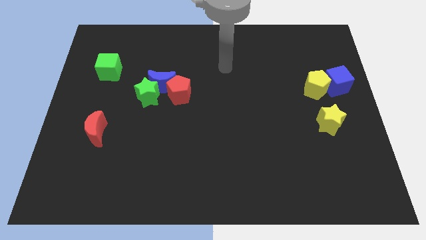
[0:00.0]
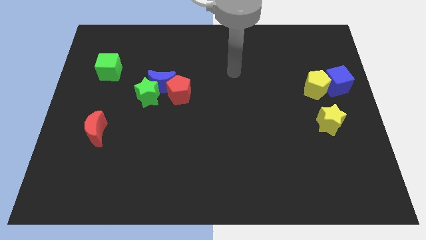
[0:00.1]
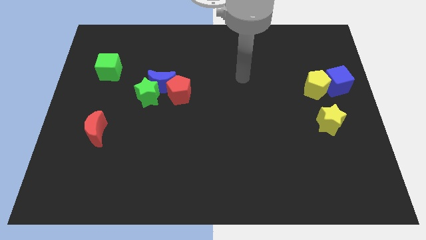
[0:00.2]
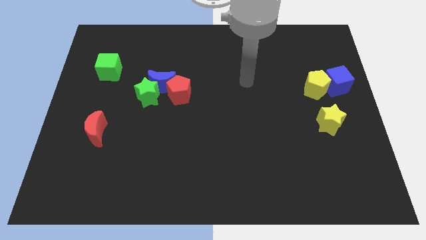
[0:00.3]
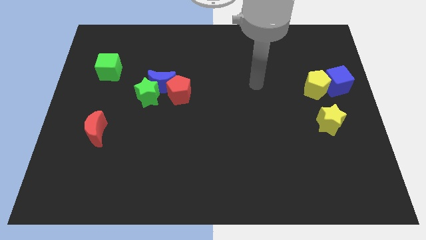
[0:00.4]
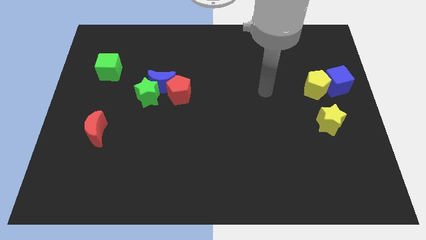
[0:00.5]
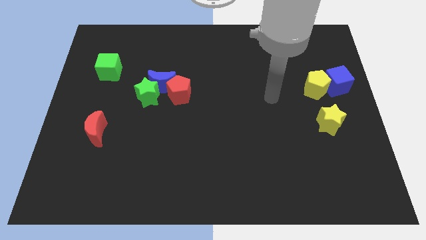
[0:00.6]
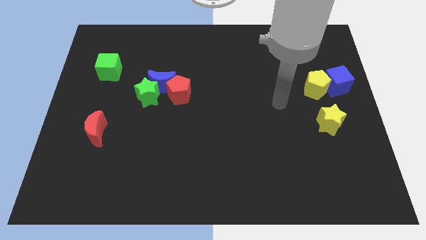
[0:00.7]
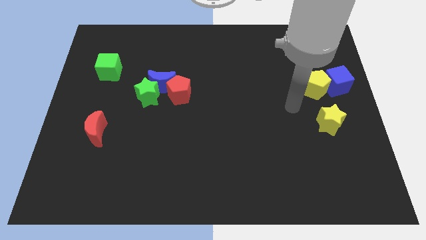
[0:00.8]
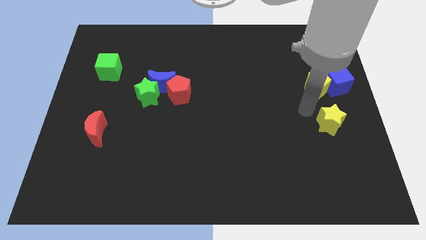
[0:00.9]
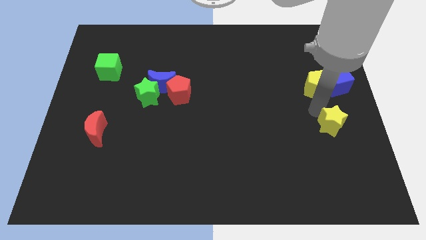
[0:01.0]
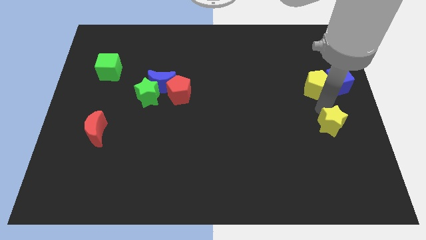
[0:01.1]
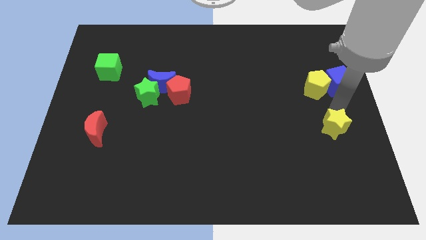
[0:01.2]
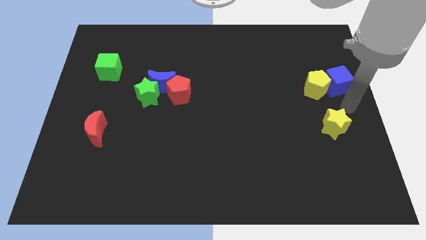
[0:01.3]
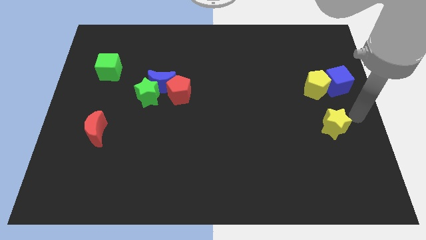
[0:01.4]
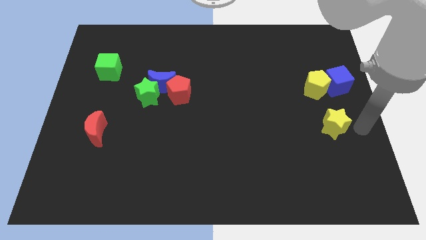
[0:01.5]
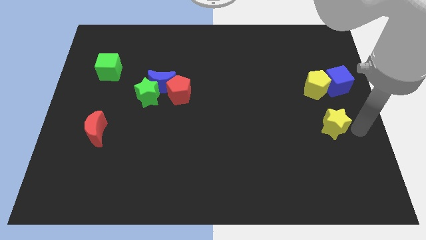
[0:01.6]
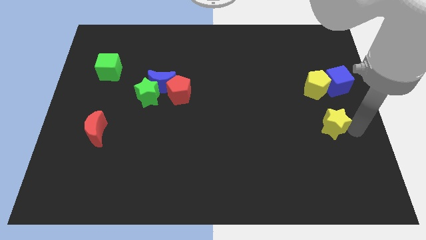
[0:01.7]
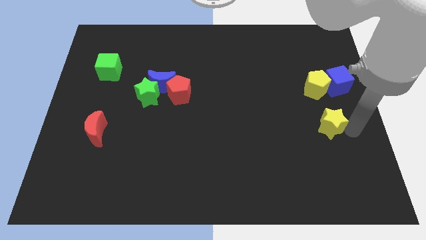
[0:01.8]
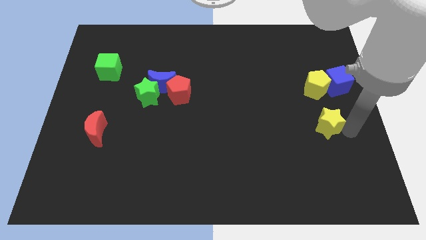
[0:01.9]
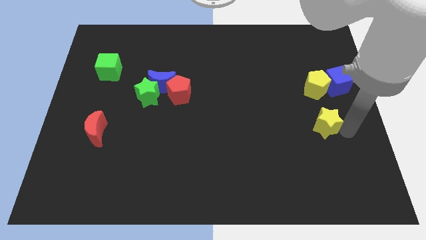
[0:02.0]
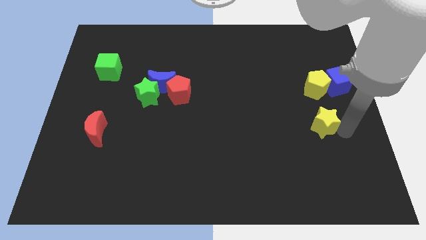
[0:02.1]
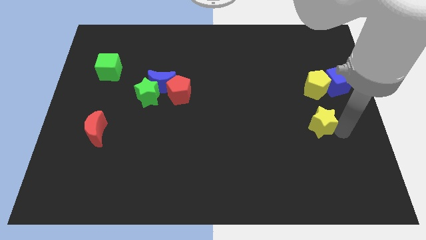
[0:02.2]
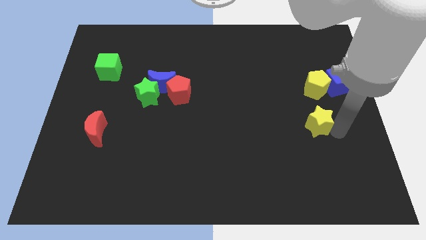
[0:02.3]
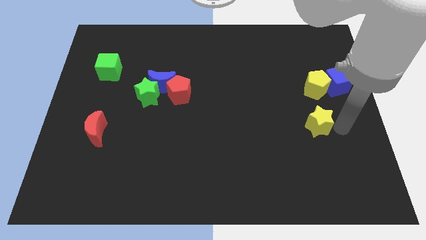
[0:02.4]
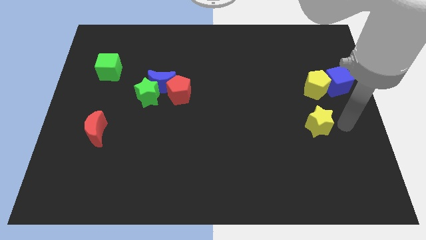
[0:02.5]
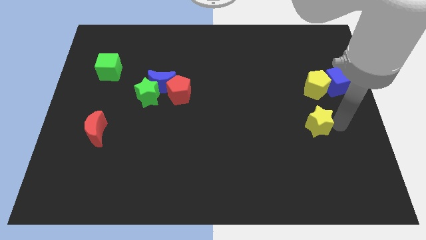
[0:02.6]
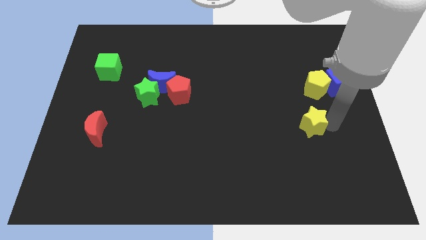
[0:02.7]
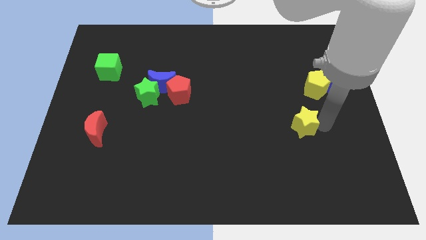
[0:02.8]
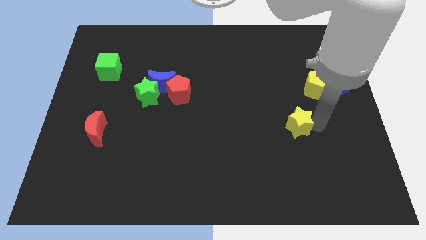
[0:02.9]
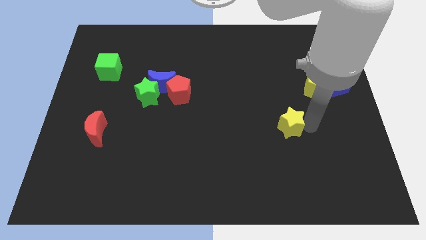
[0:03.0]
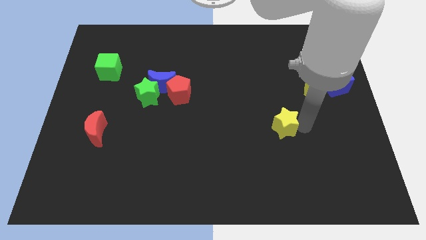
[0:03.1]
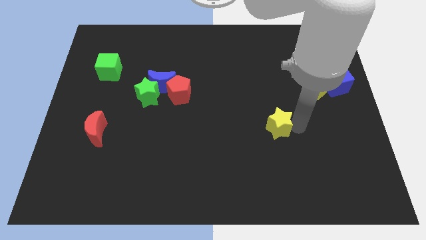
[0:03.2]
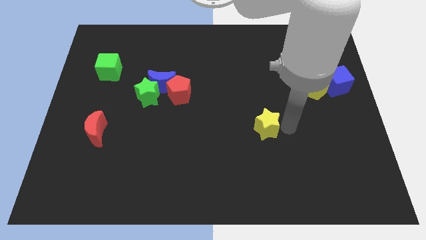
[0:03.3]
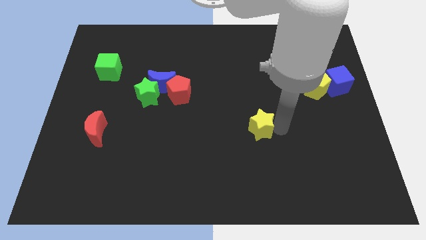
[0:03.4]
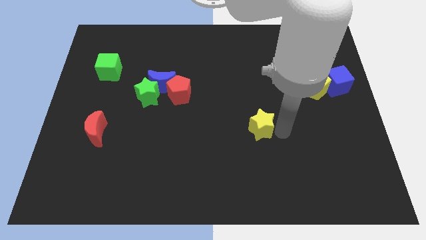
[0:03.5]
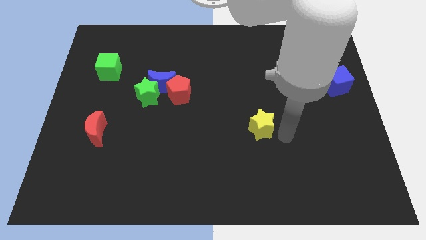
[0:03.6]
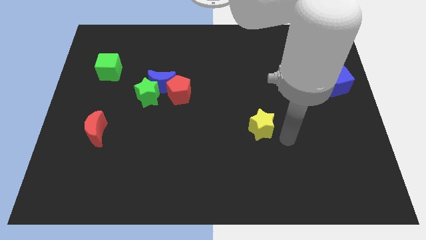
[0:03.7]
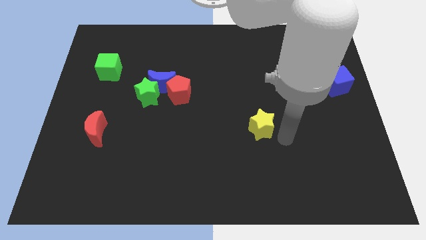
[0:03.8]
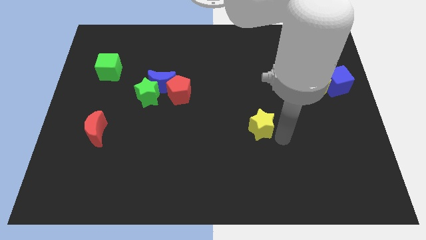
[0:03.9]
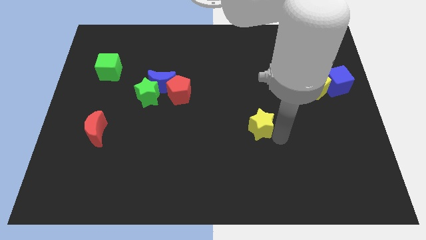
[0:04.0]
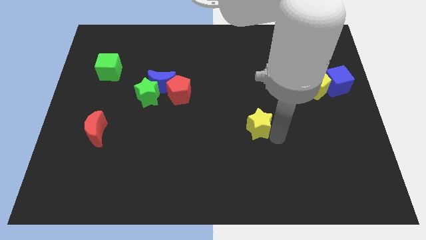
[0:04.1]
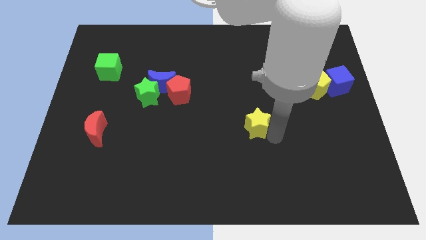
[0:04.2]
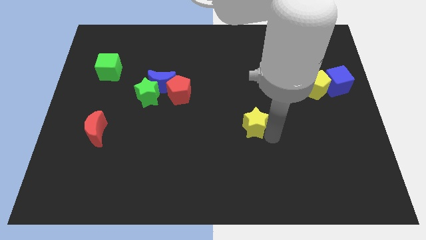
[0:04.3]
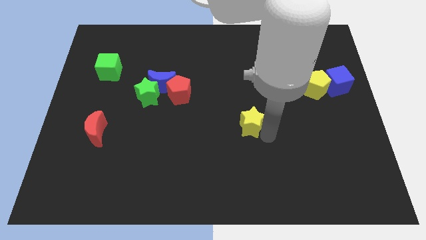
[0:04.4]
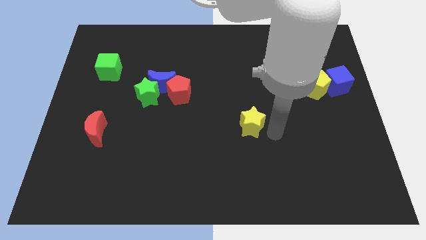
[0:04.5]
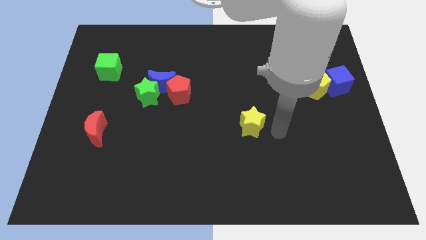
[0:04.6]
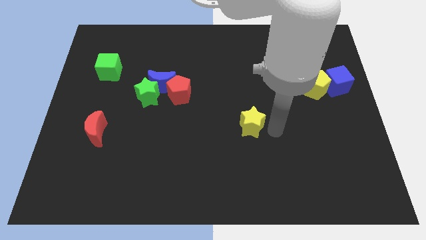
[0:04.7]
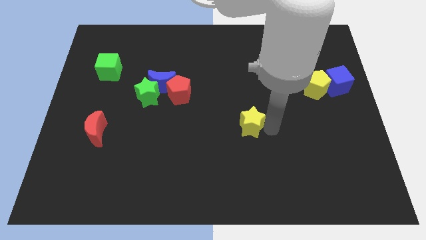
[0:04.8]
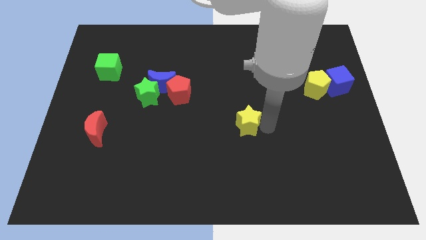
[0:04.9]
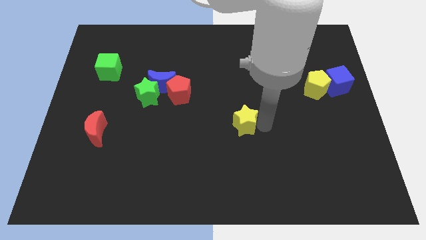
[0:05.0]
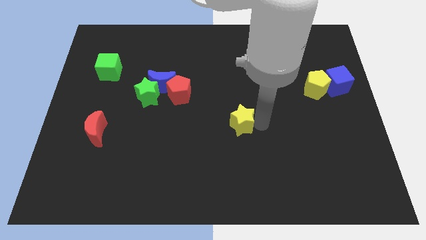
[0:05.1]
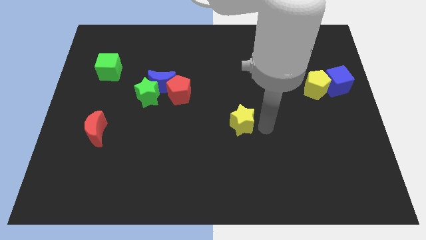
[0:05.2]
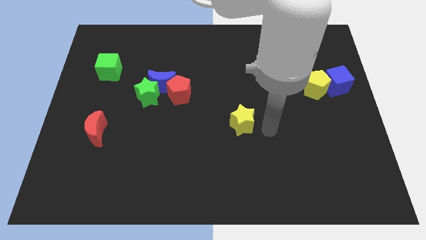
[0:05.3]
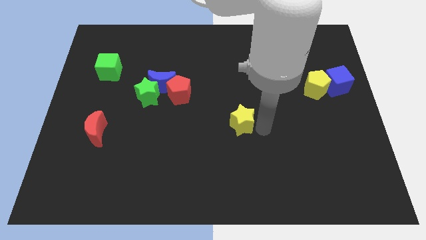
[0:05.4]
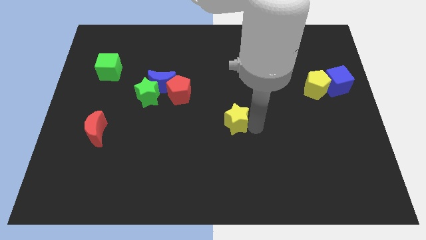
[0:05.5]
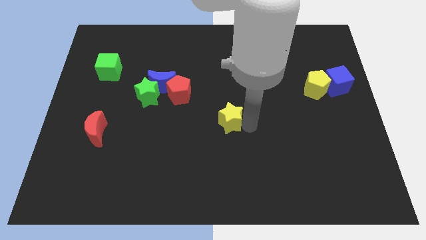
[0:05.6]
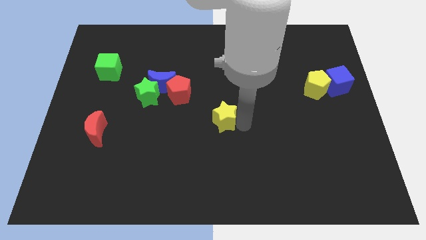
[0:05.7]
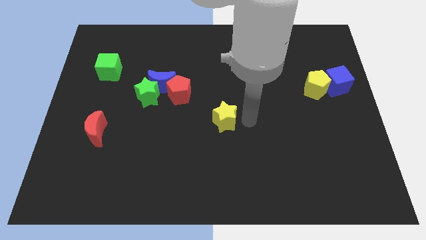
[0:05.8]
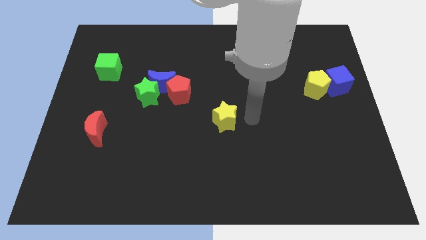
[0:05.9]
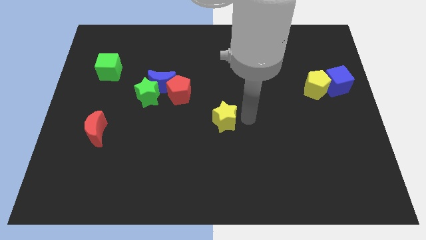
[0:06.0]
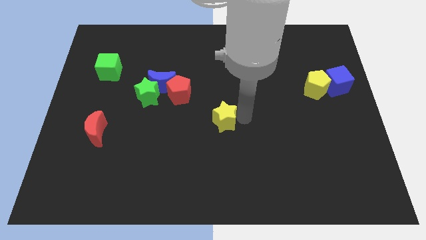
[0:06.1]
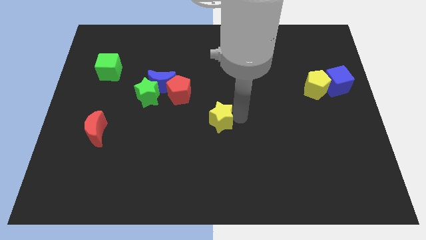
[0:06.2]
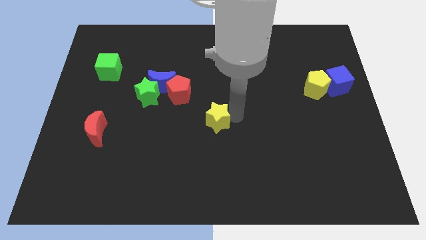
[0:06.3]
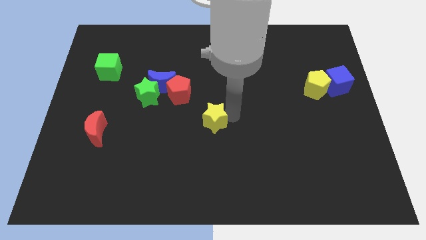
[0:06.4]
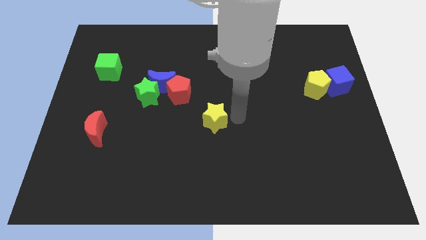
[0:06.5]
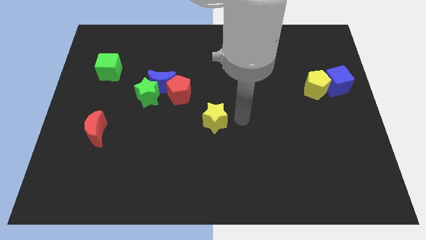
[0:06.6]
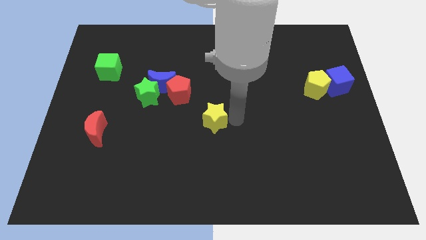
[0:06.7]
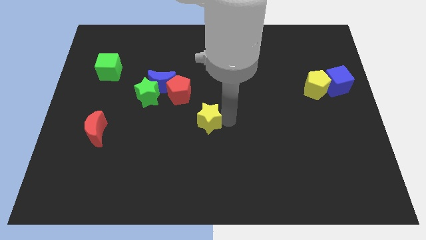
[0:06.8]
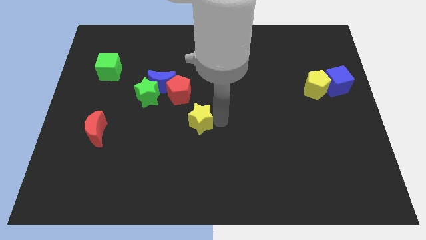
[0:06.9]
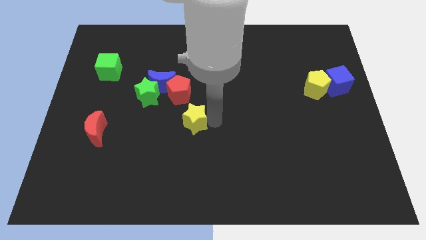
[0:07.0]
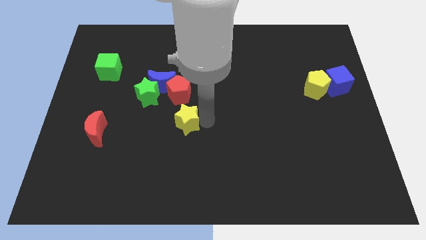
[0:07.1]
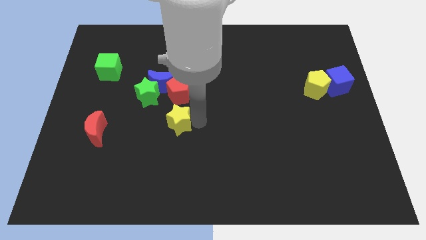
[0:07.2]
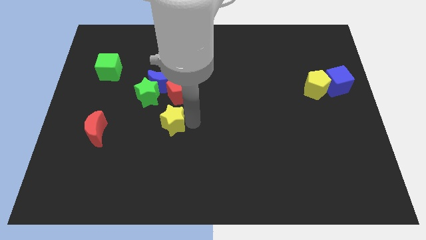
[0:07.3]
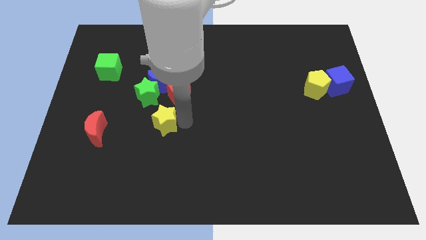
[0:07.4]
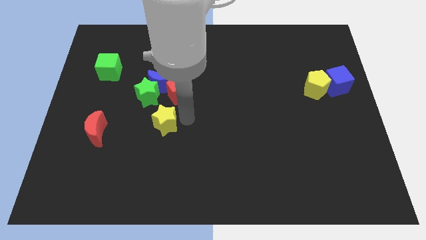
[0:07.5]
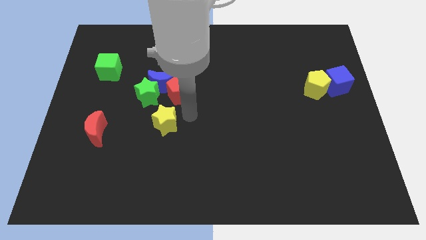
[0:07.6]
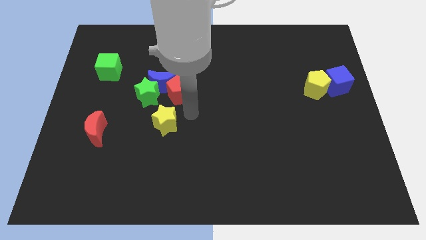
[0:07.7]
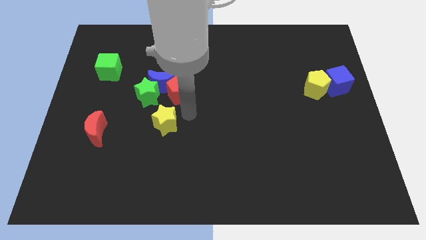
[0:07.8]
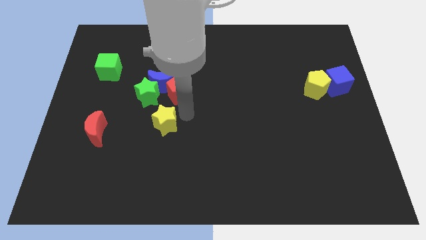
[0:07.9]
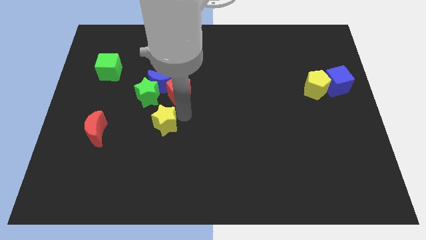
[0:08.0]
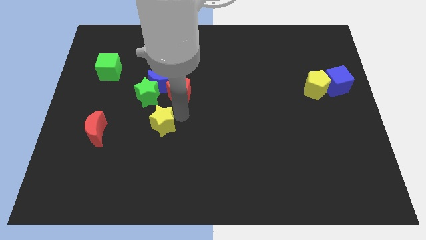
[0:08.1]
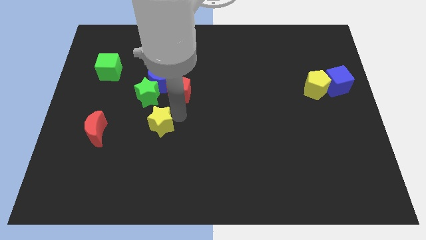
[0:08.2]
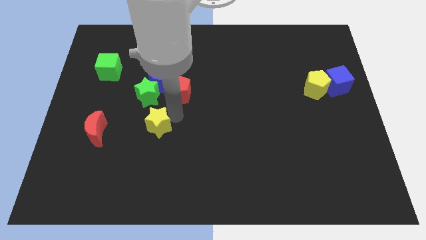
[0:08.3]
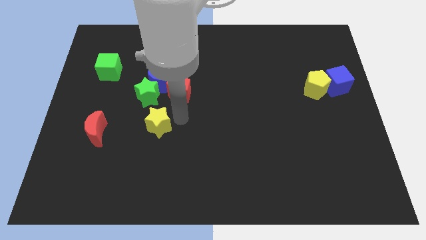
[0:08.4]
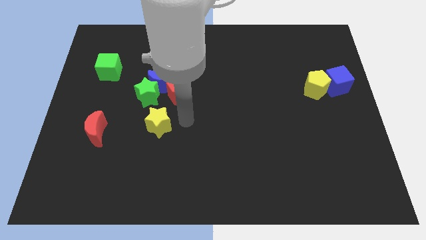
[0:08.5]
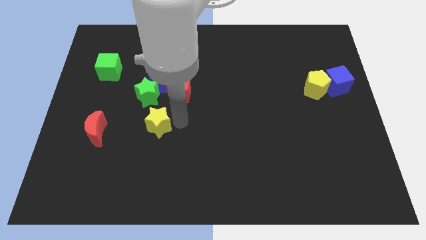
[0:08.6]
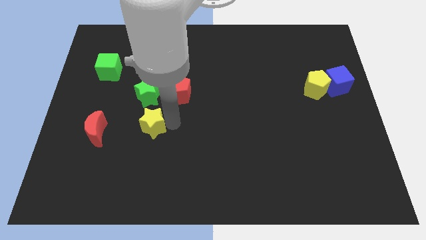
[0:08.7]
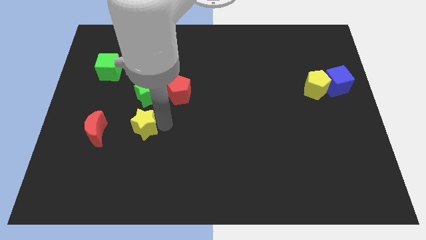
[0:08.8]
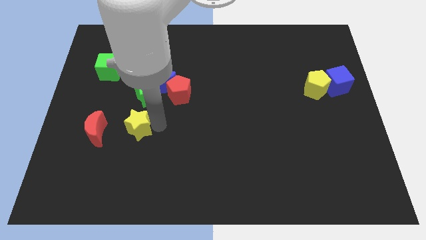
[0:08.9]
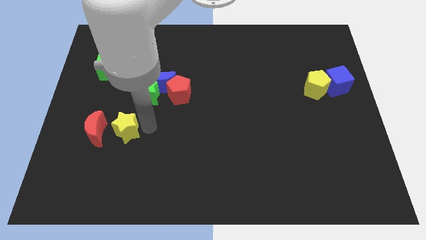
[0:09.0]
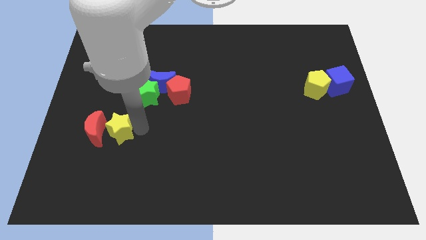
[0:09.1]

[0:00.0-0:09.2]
push the yellow star to the red moon
